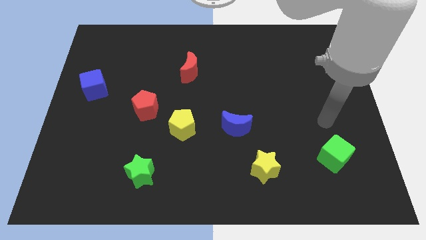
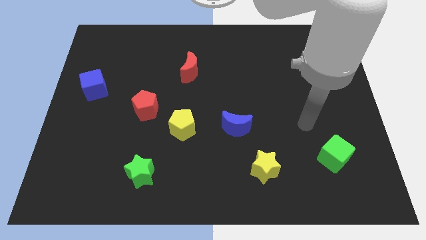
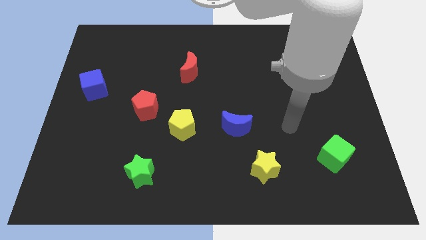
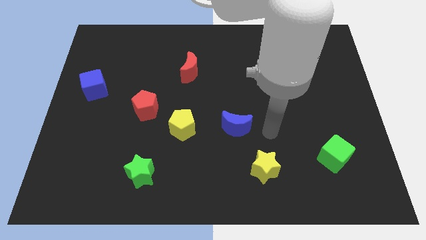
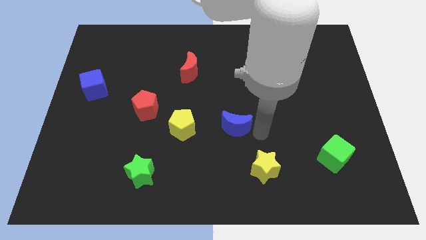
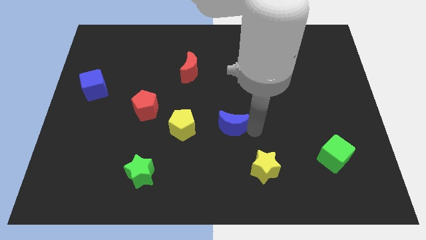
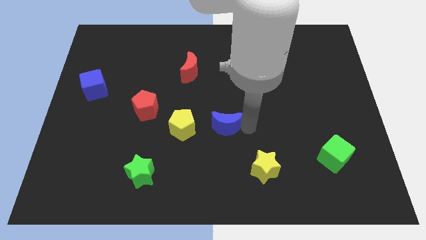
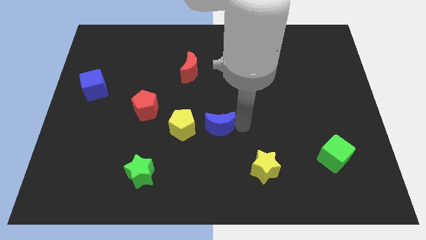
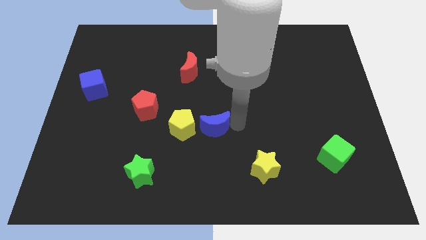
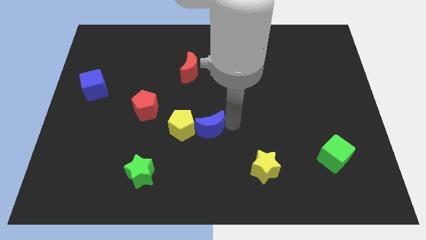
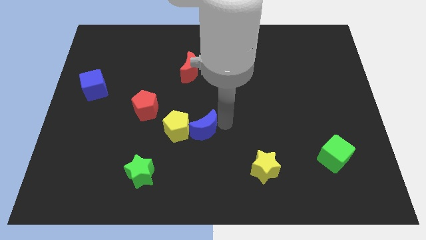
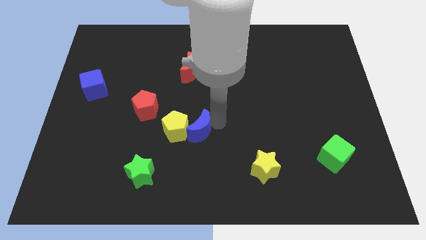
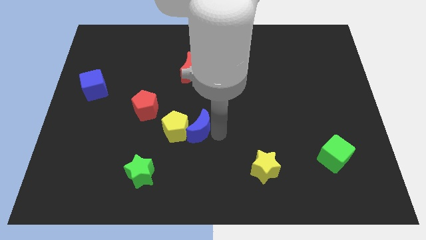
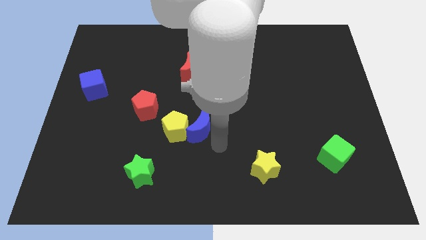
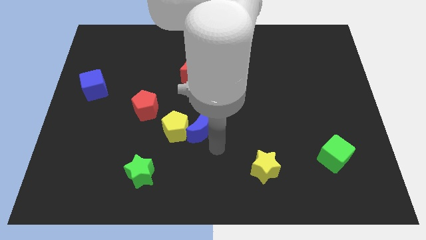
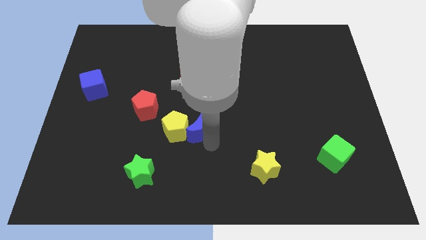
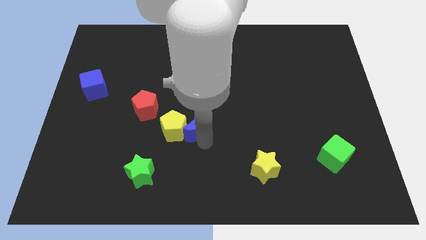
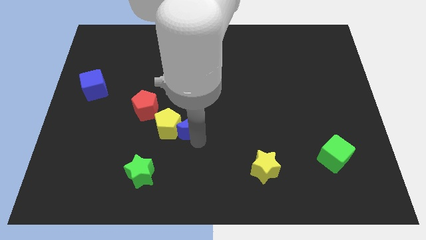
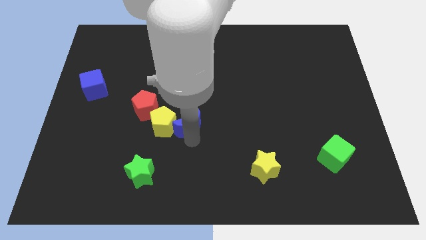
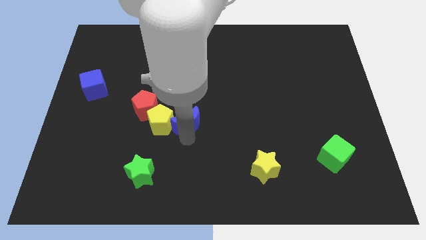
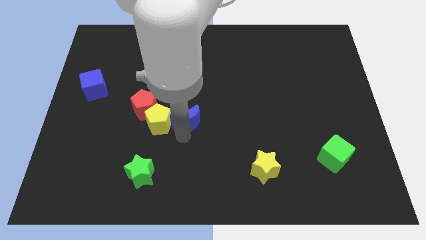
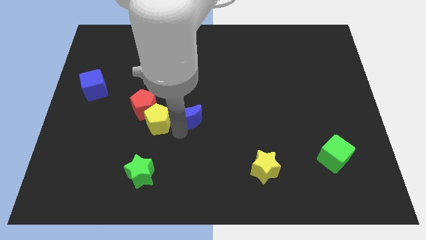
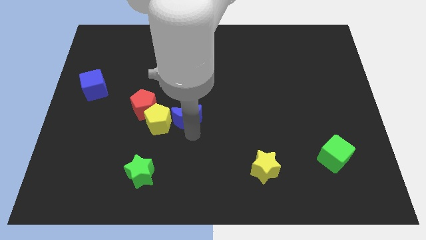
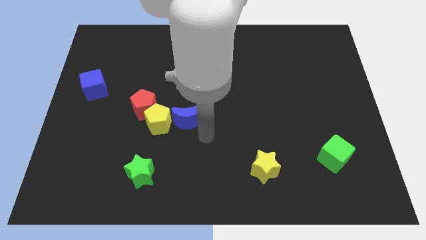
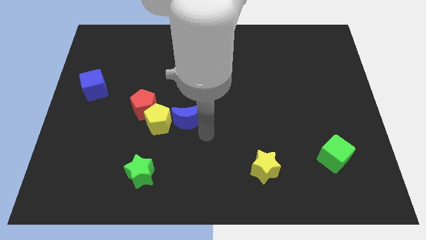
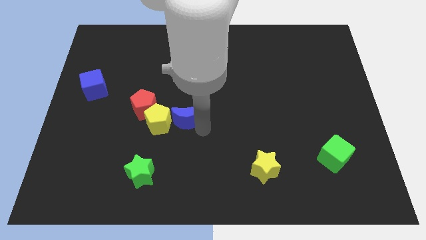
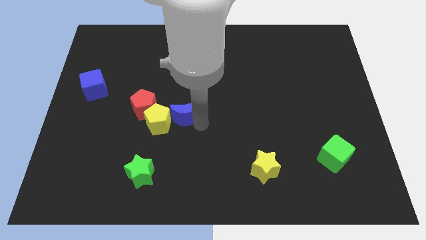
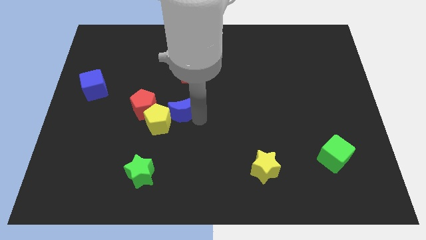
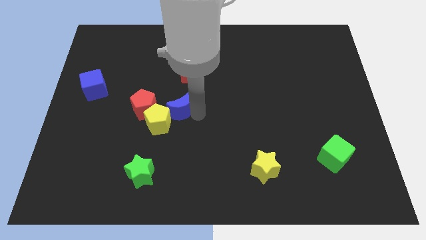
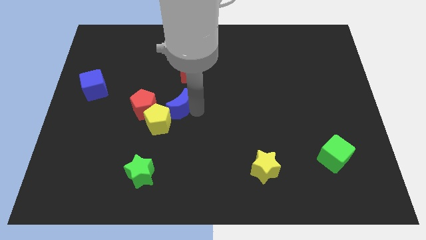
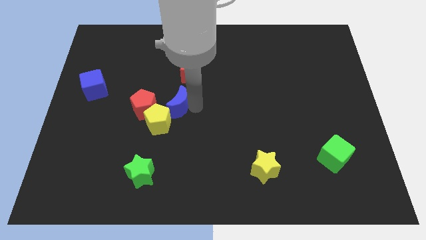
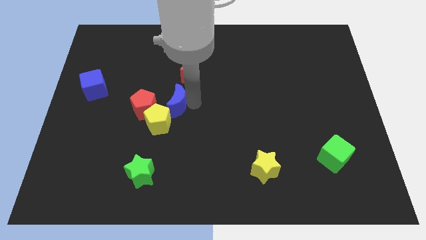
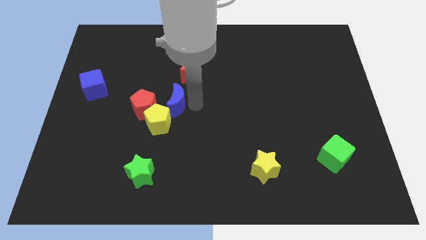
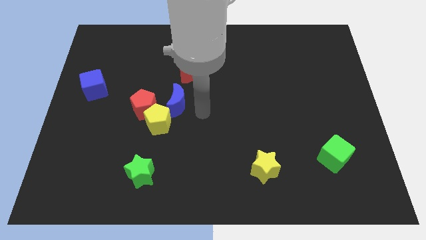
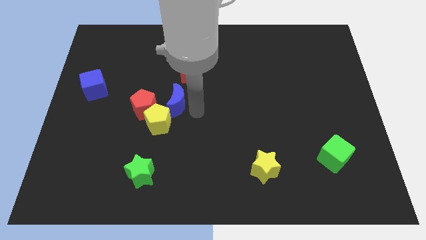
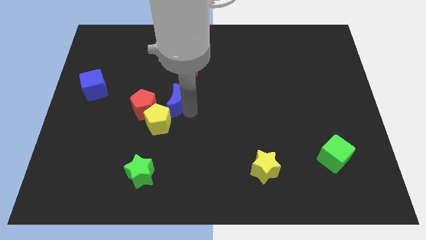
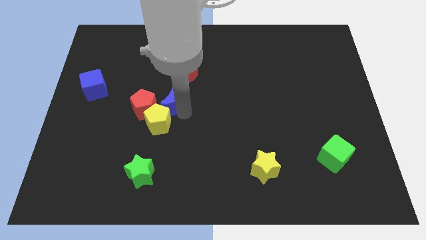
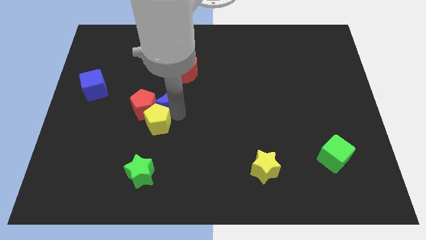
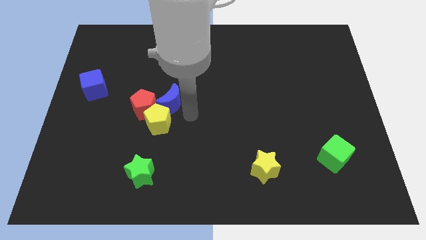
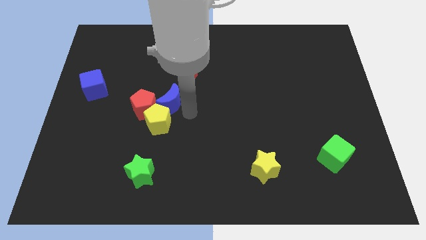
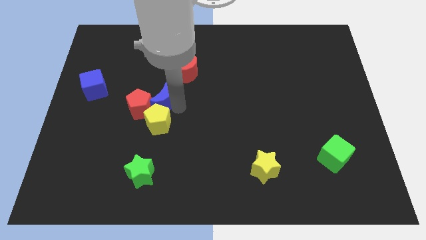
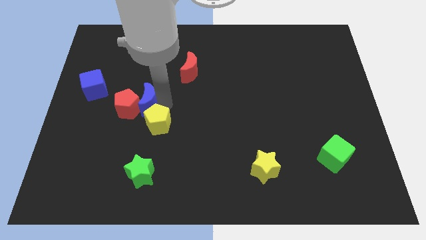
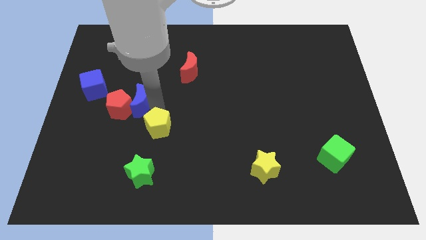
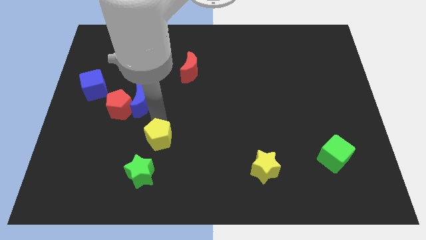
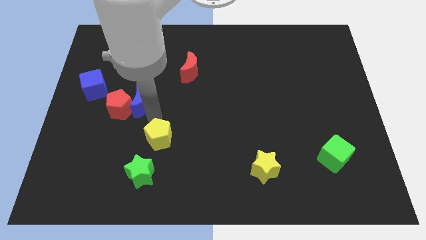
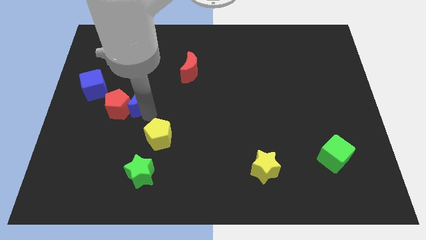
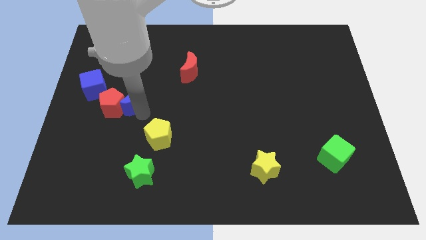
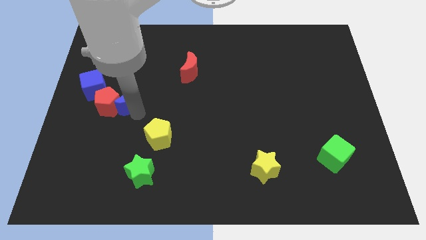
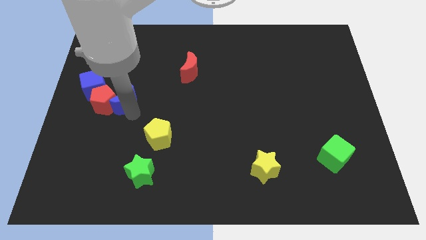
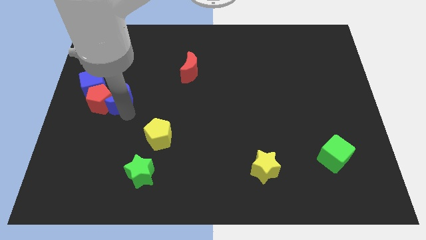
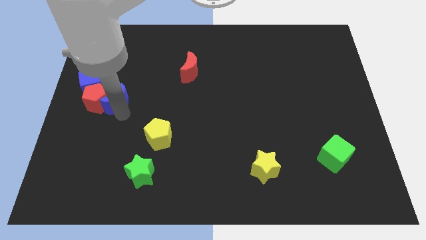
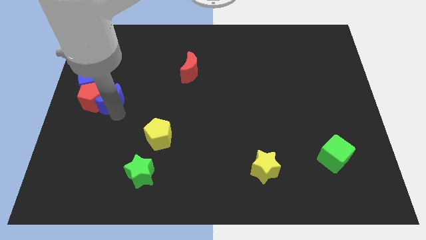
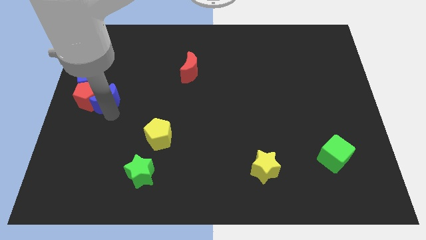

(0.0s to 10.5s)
slide the blue moon to the left side of the board

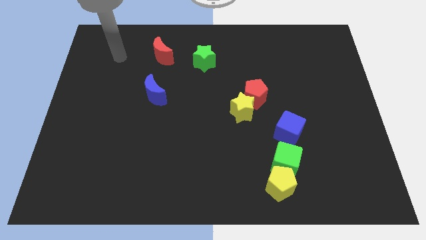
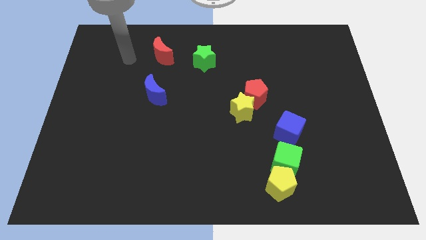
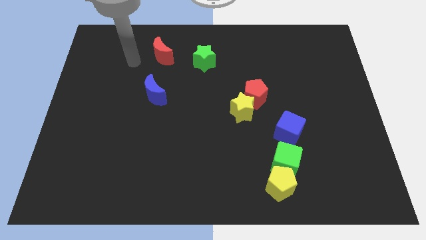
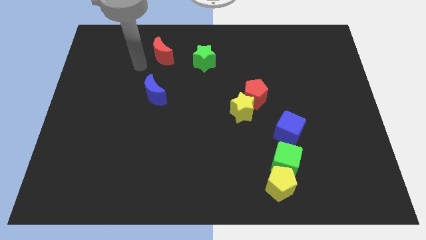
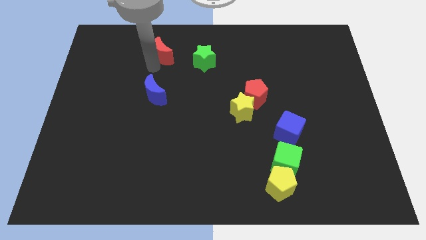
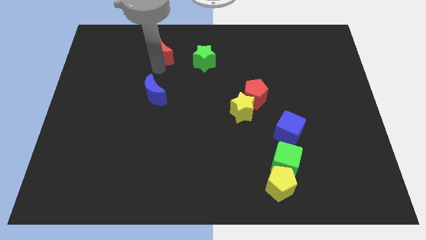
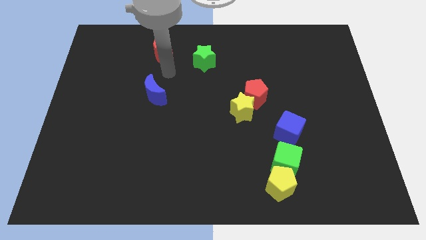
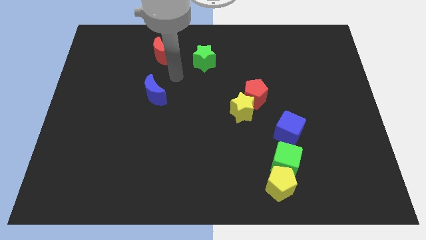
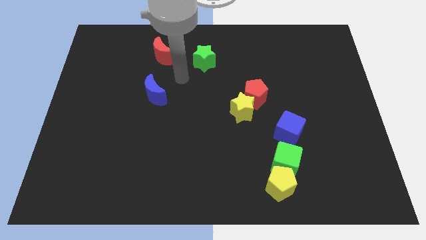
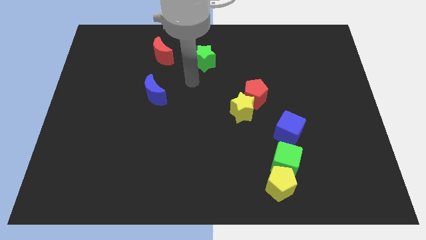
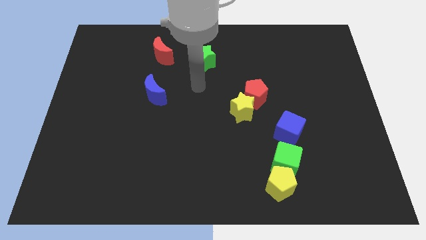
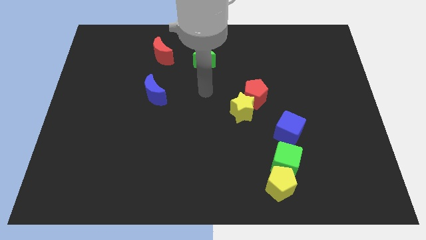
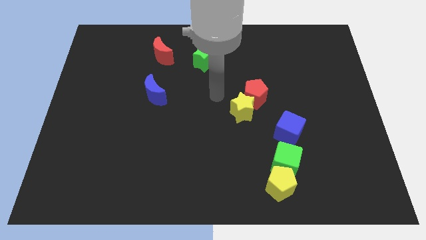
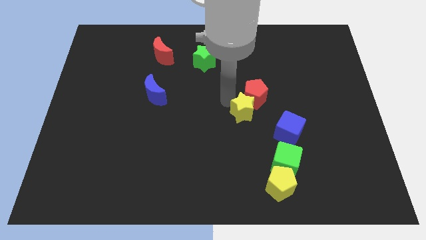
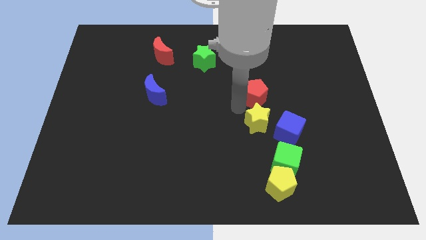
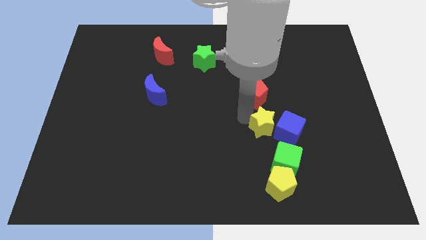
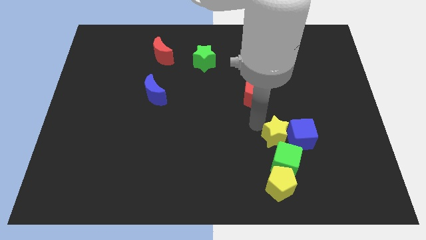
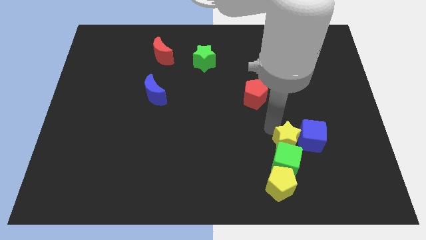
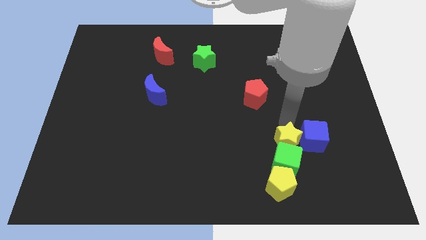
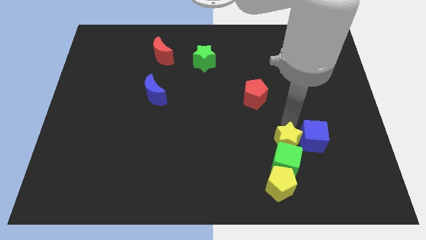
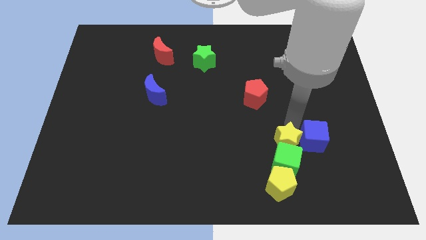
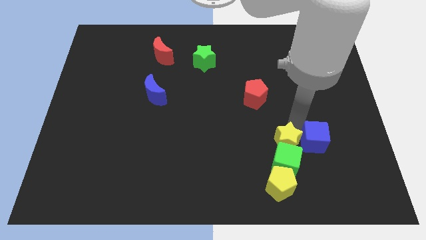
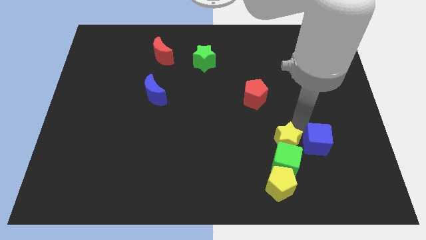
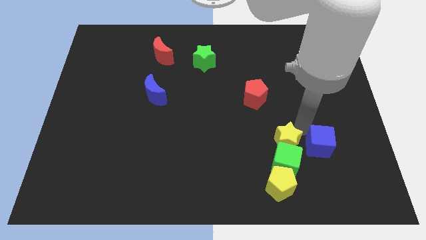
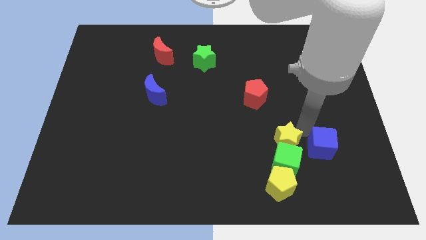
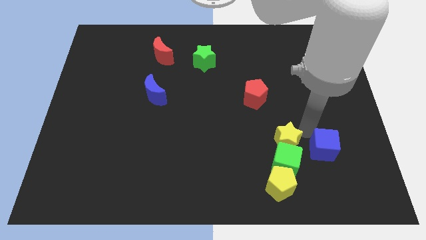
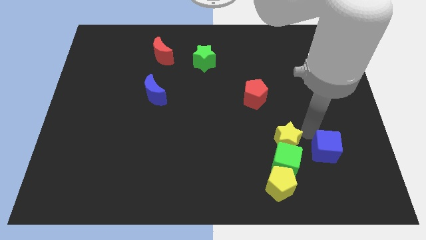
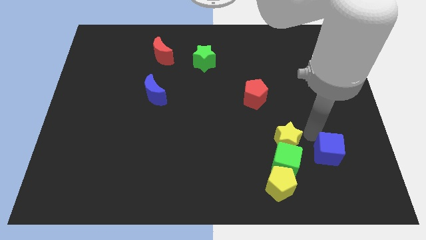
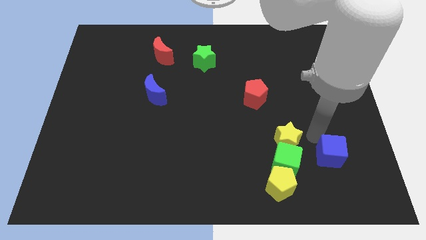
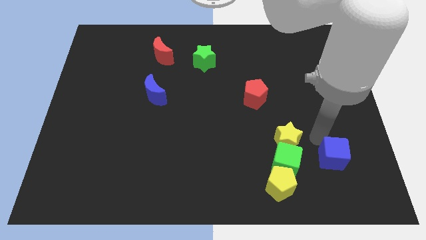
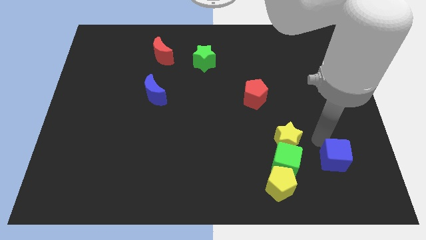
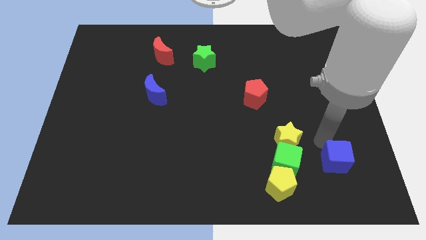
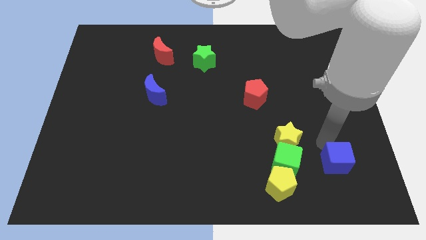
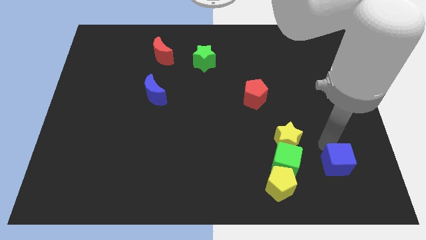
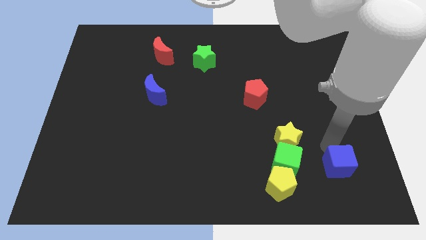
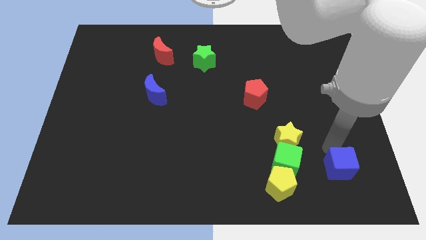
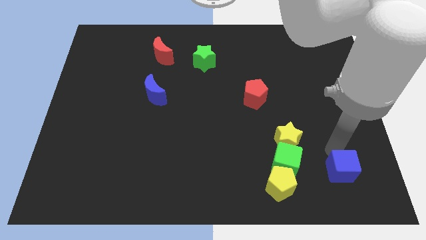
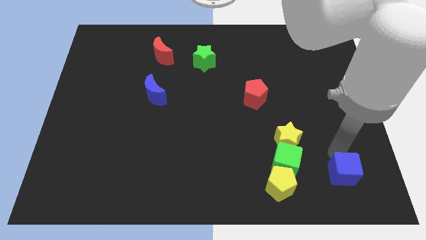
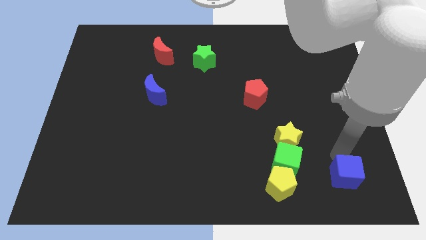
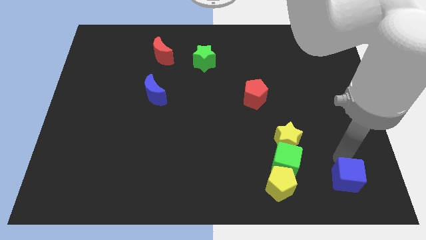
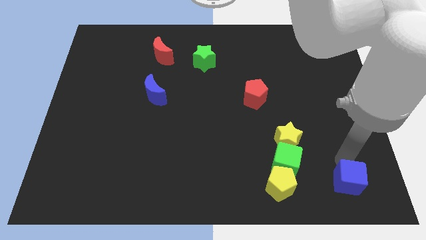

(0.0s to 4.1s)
push the blue cube to the bottom right
